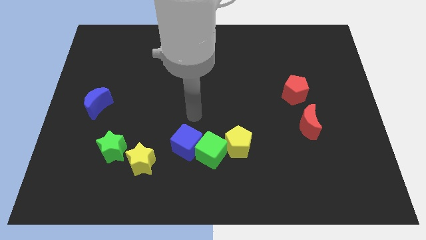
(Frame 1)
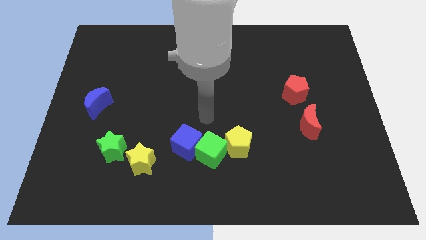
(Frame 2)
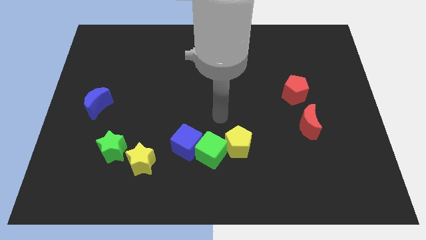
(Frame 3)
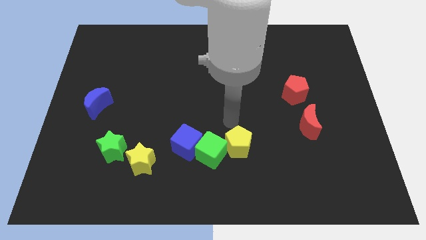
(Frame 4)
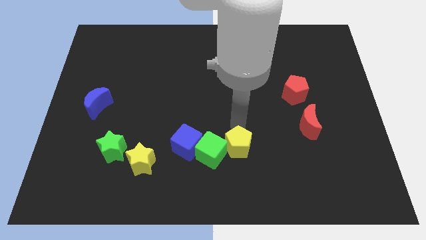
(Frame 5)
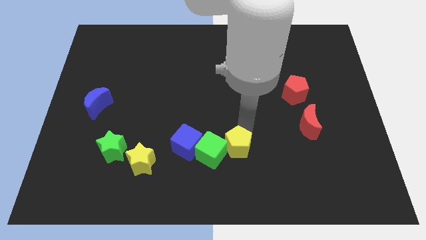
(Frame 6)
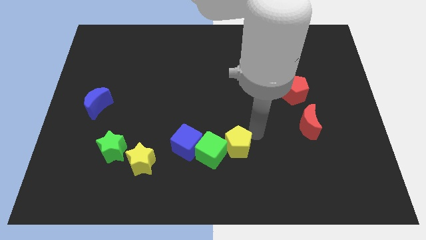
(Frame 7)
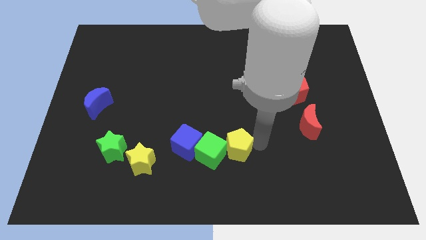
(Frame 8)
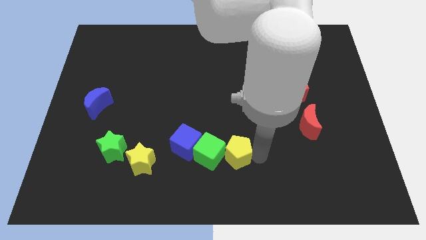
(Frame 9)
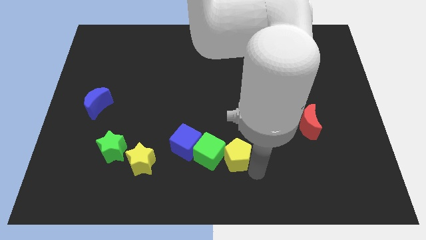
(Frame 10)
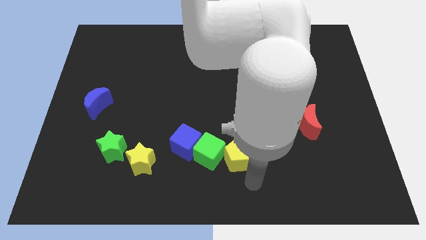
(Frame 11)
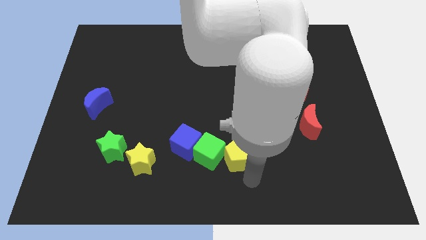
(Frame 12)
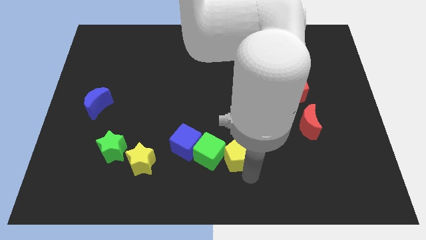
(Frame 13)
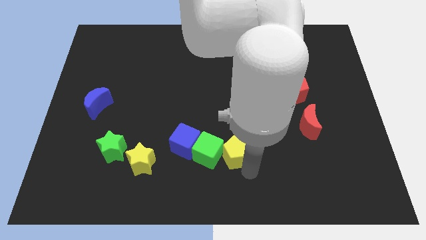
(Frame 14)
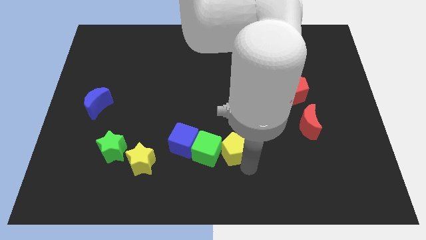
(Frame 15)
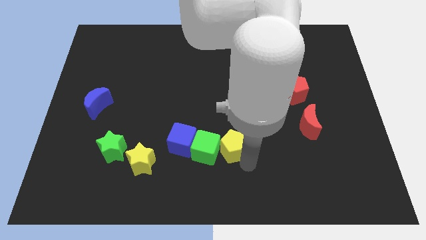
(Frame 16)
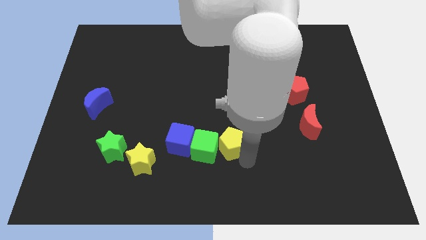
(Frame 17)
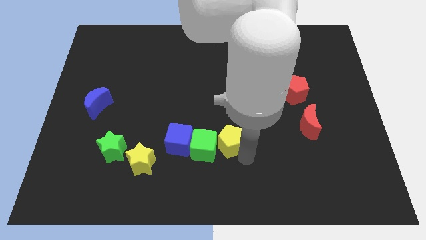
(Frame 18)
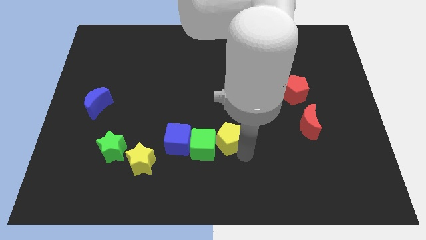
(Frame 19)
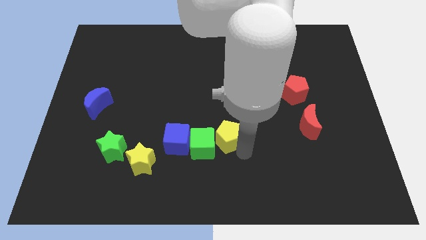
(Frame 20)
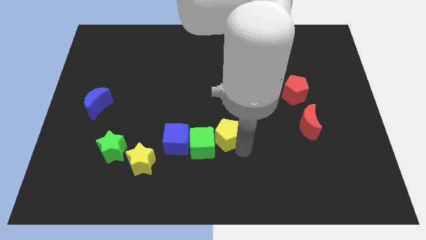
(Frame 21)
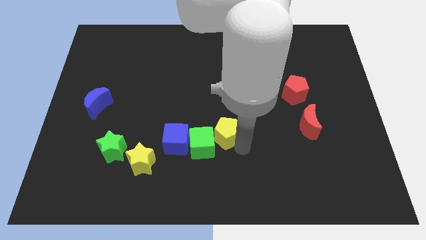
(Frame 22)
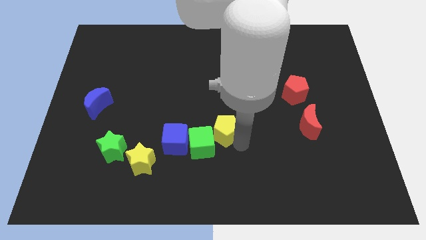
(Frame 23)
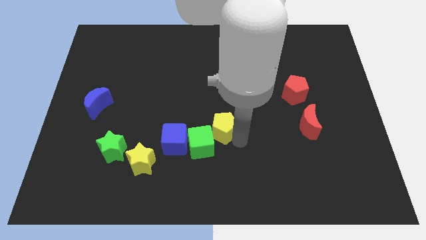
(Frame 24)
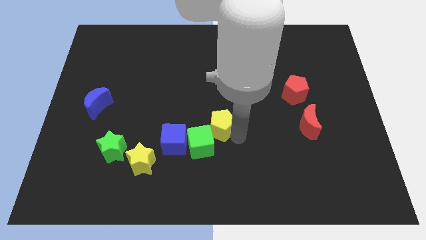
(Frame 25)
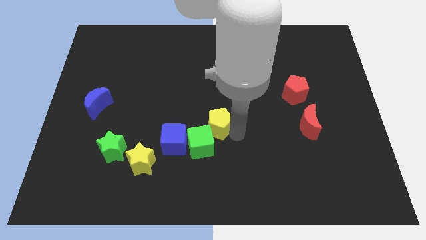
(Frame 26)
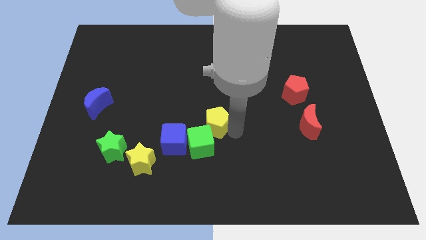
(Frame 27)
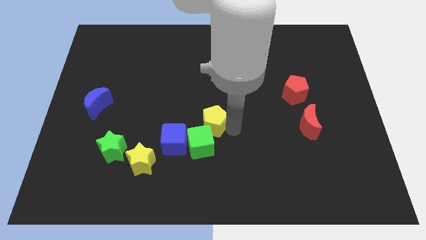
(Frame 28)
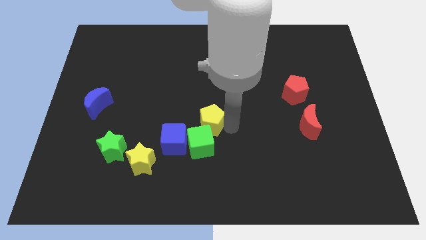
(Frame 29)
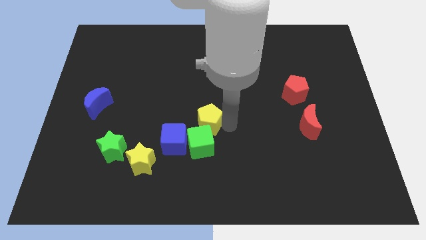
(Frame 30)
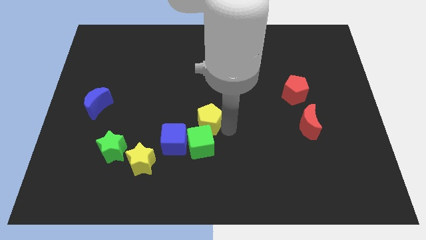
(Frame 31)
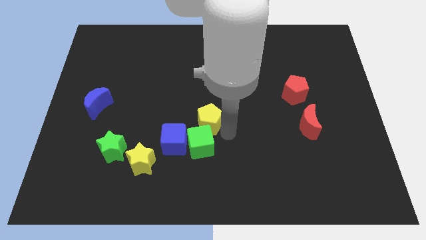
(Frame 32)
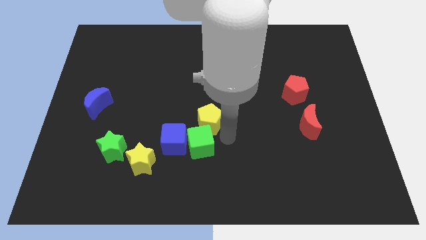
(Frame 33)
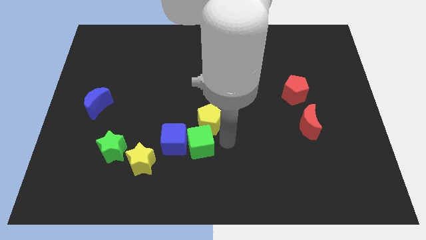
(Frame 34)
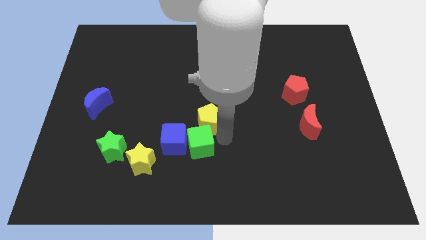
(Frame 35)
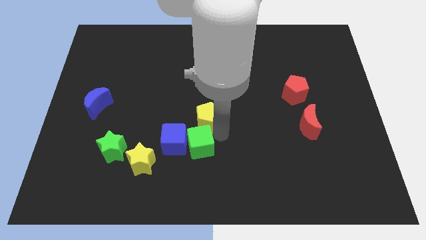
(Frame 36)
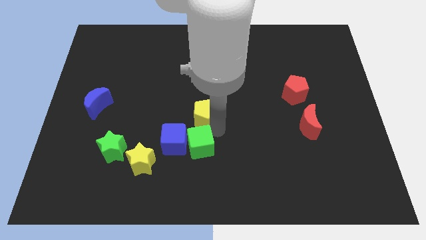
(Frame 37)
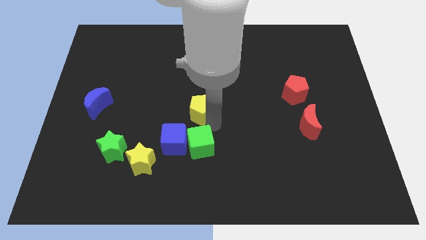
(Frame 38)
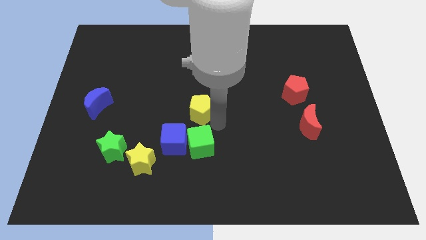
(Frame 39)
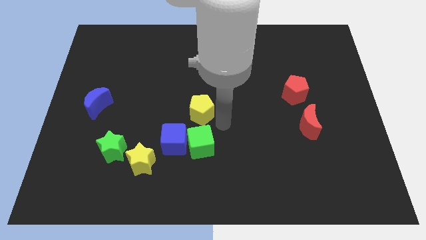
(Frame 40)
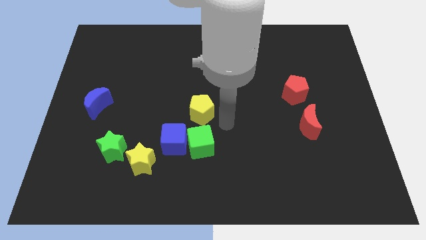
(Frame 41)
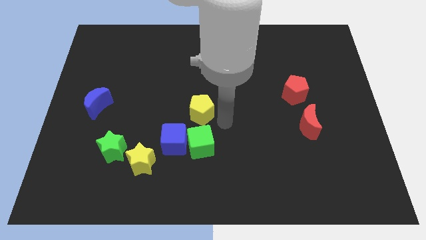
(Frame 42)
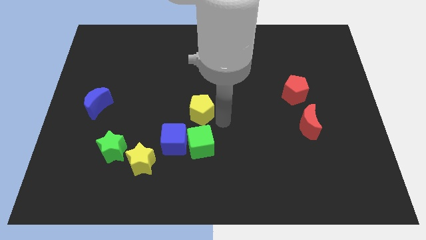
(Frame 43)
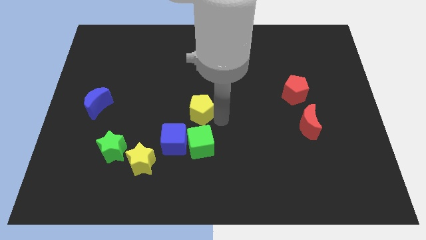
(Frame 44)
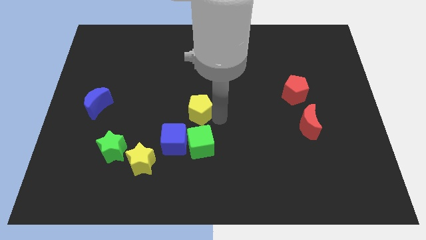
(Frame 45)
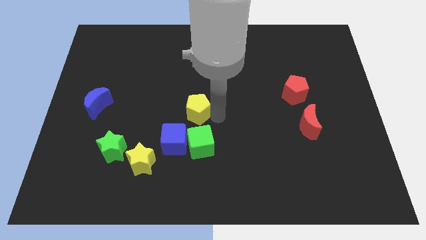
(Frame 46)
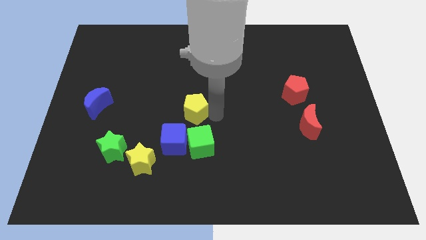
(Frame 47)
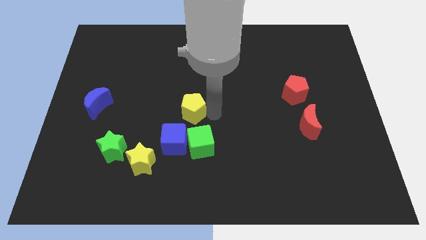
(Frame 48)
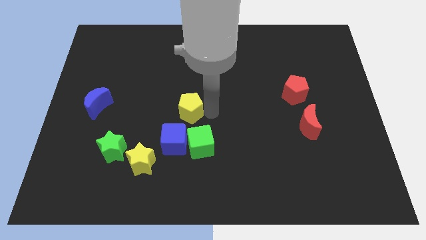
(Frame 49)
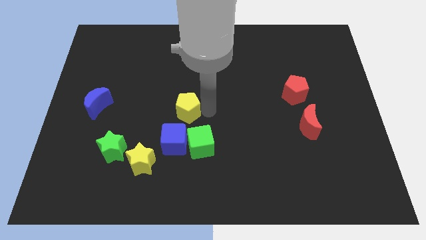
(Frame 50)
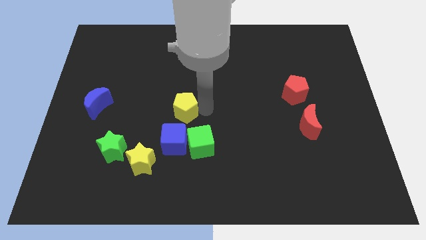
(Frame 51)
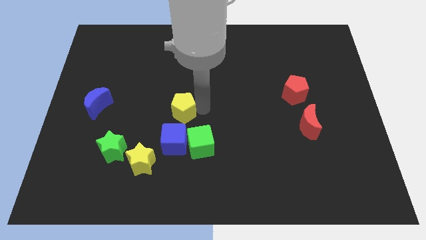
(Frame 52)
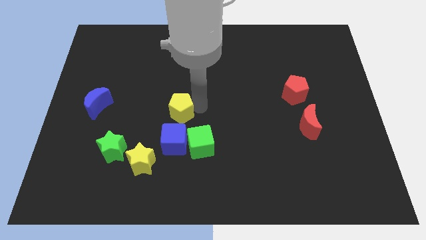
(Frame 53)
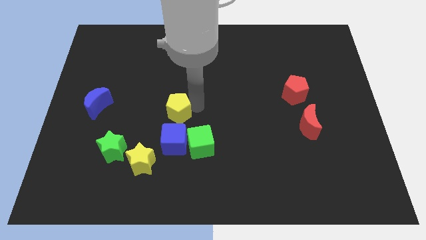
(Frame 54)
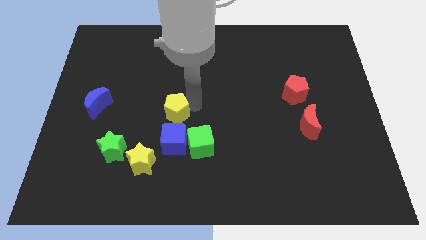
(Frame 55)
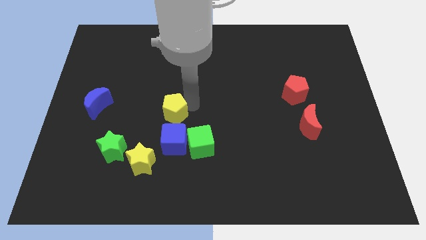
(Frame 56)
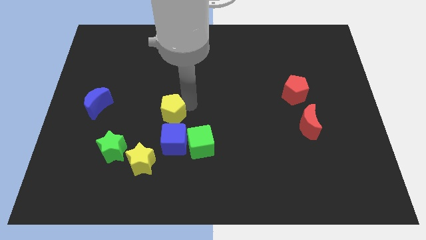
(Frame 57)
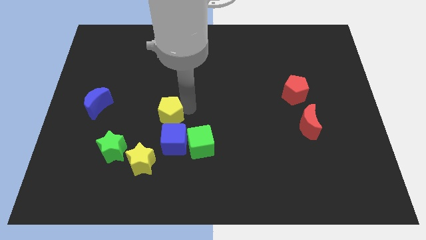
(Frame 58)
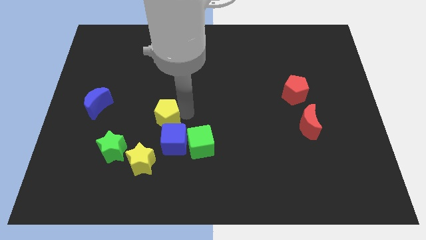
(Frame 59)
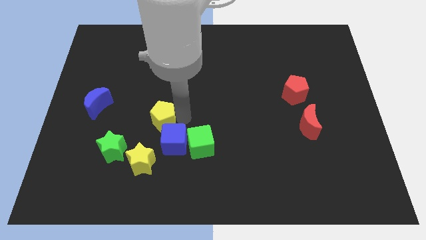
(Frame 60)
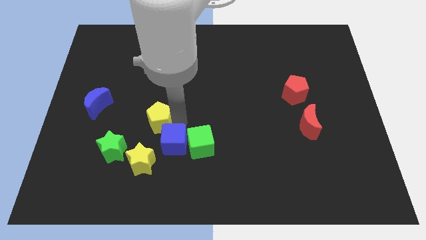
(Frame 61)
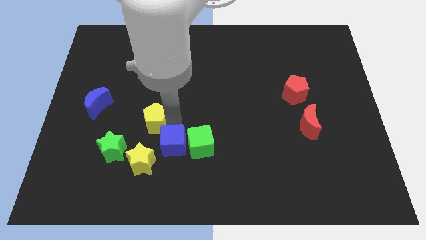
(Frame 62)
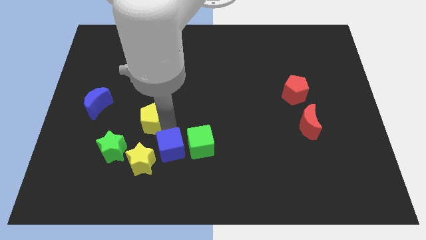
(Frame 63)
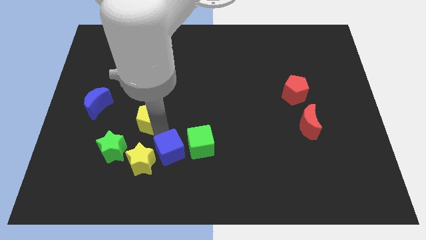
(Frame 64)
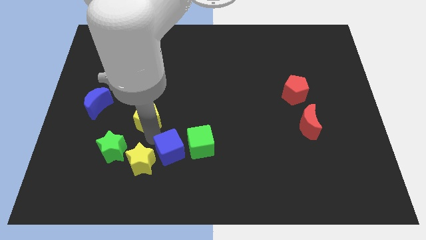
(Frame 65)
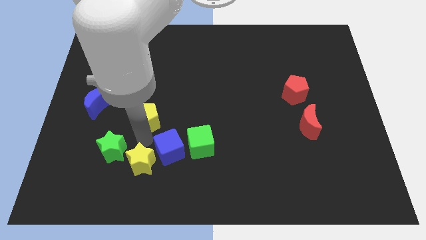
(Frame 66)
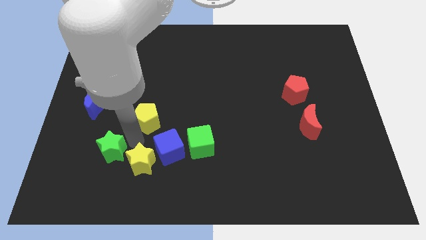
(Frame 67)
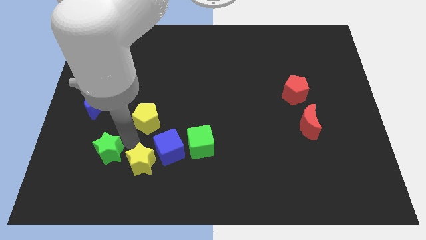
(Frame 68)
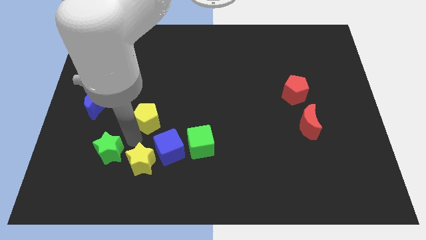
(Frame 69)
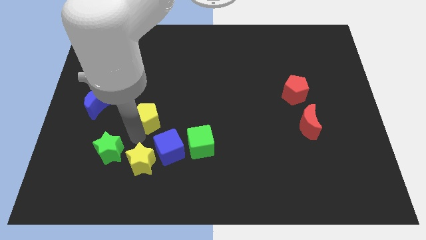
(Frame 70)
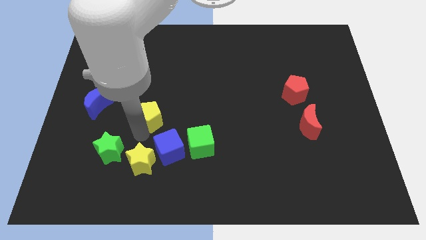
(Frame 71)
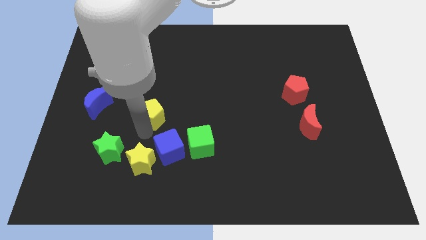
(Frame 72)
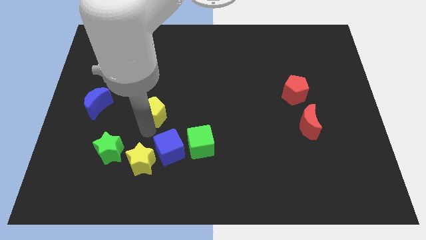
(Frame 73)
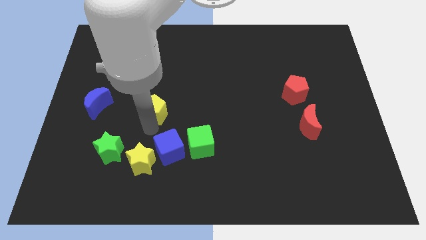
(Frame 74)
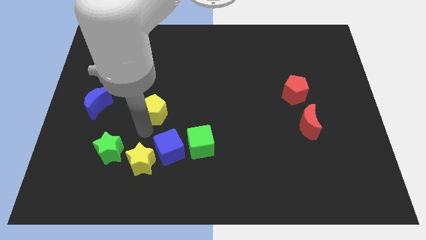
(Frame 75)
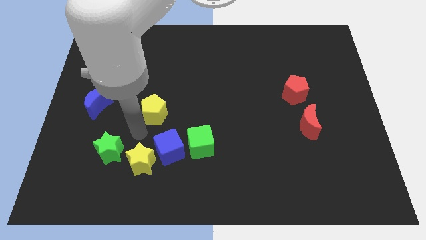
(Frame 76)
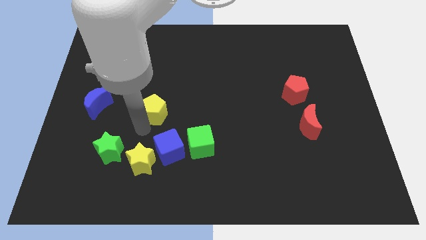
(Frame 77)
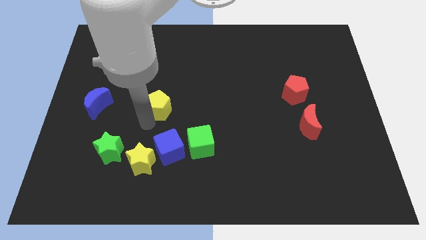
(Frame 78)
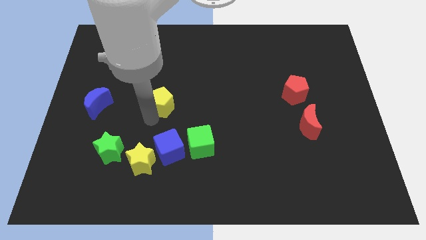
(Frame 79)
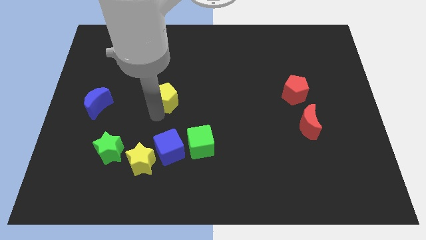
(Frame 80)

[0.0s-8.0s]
slide the yellow pentagon upwards and to the left
